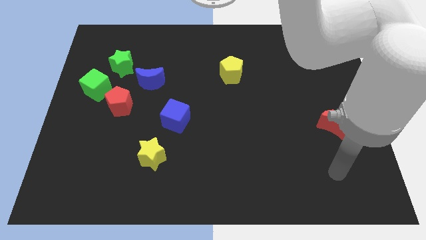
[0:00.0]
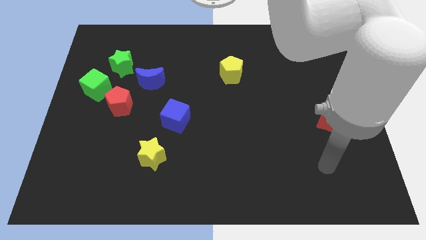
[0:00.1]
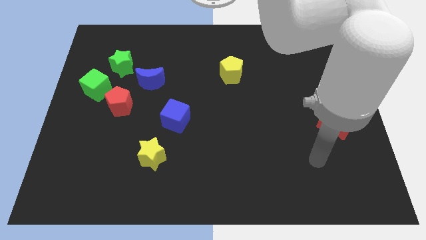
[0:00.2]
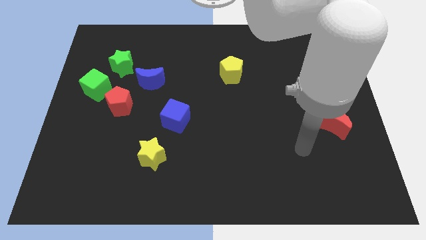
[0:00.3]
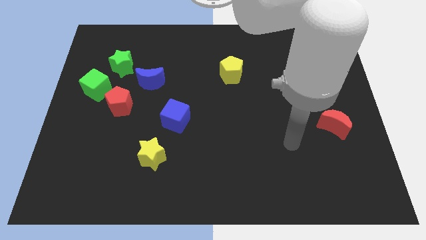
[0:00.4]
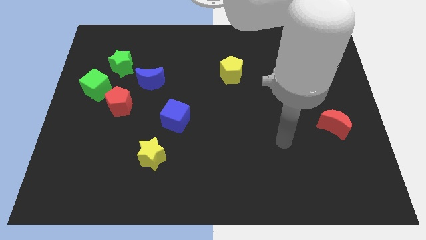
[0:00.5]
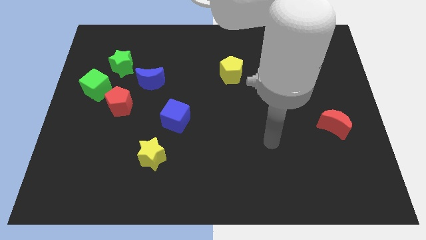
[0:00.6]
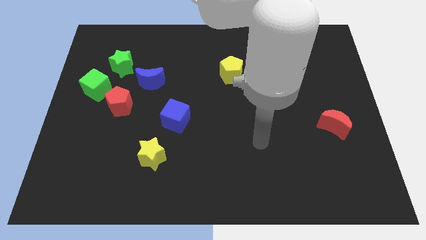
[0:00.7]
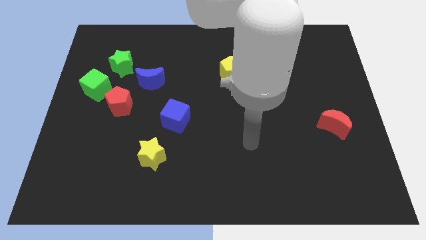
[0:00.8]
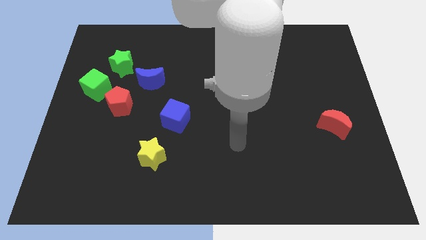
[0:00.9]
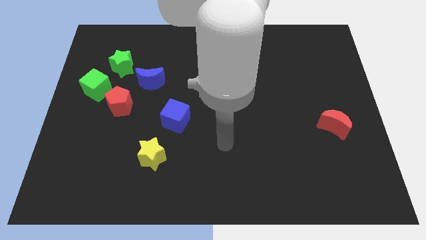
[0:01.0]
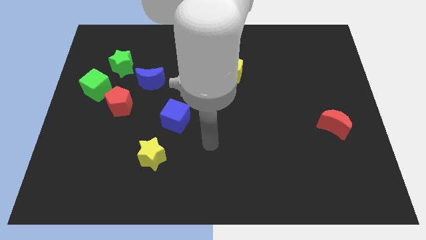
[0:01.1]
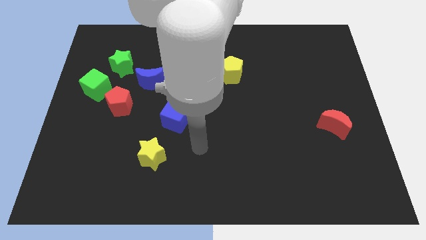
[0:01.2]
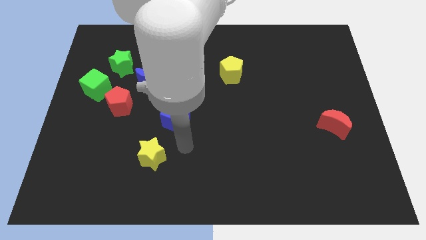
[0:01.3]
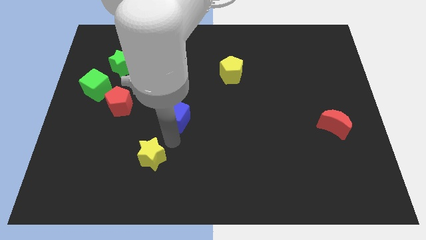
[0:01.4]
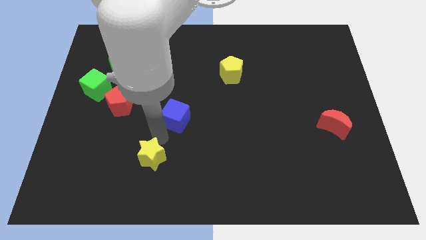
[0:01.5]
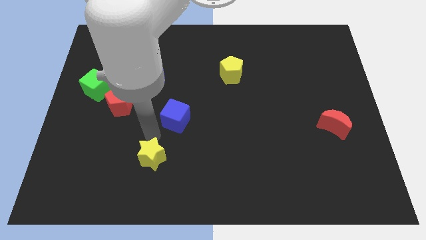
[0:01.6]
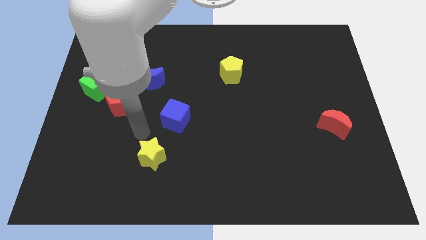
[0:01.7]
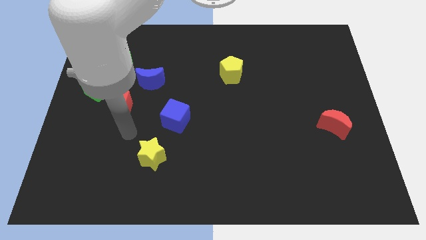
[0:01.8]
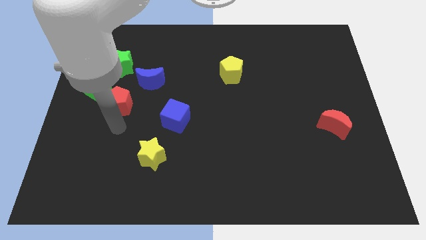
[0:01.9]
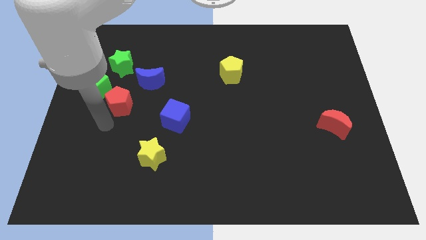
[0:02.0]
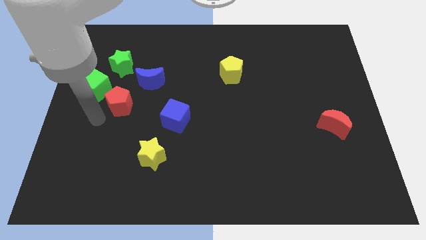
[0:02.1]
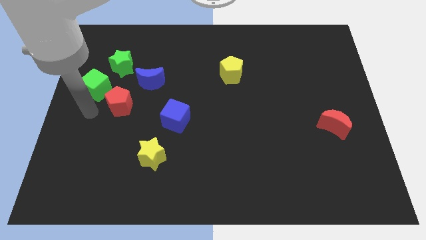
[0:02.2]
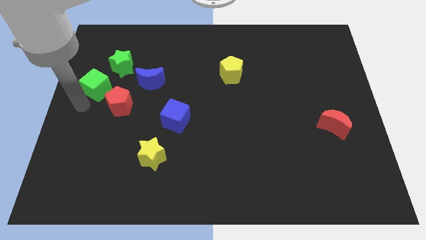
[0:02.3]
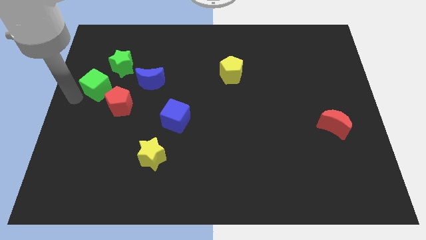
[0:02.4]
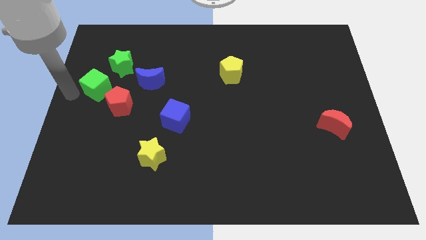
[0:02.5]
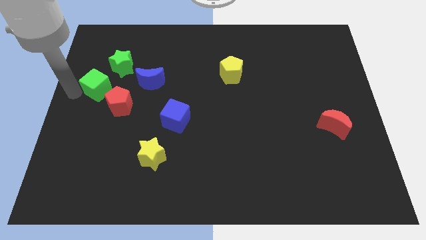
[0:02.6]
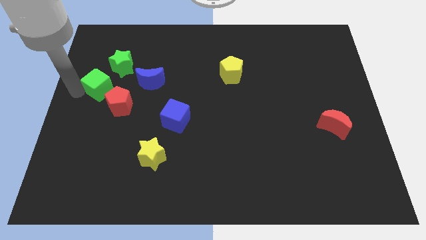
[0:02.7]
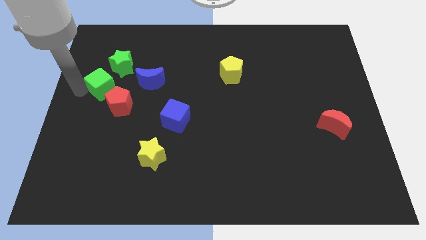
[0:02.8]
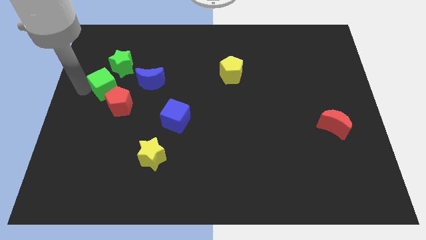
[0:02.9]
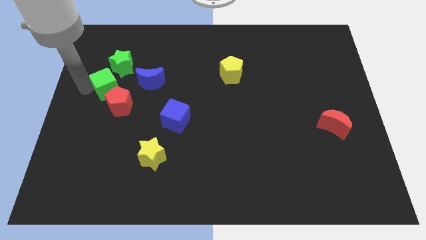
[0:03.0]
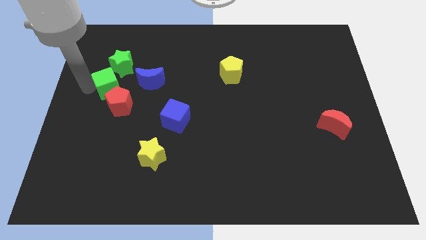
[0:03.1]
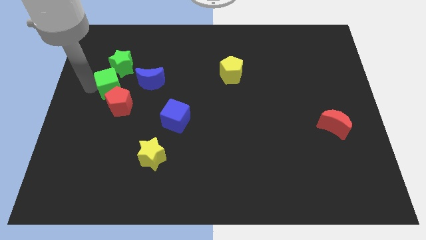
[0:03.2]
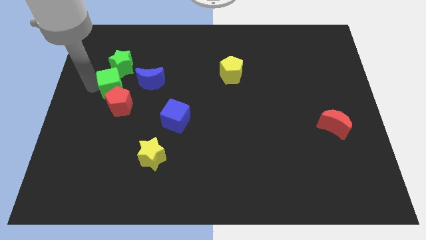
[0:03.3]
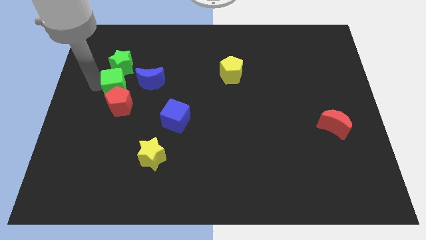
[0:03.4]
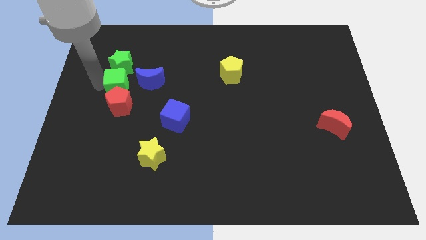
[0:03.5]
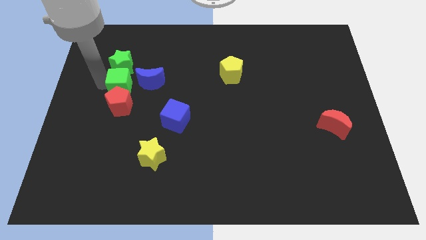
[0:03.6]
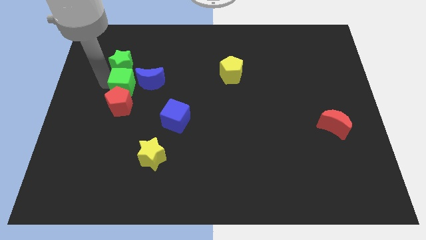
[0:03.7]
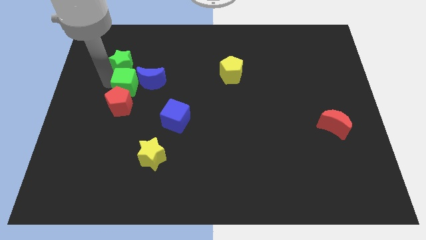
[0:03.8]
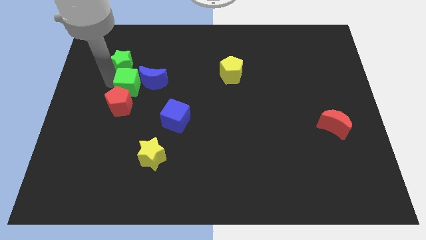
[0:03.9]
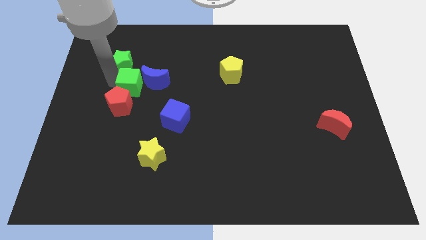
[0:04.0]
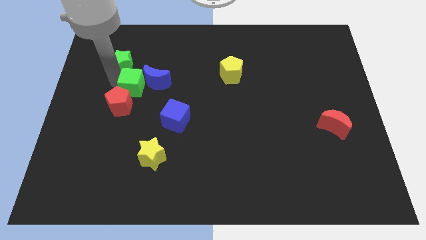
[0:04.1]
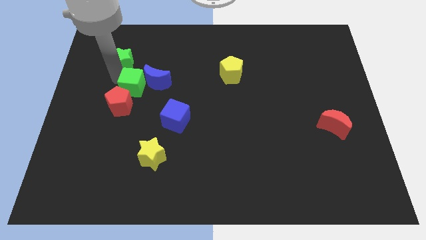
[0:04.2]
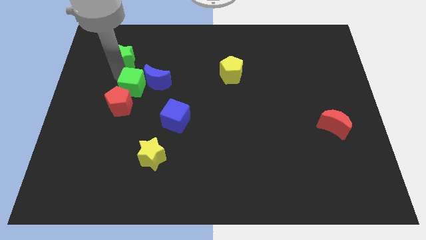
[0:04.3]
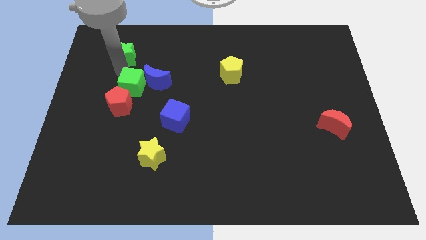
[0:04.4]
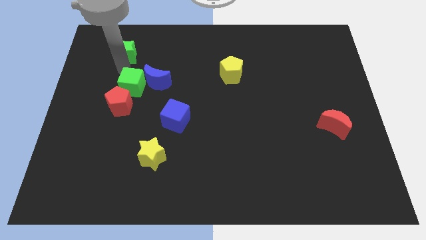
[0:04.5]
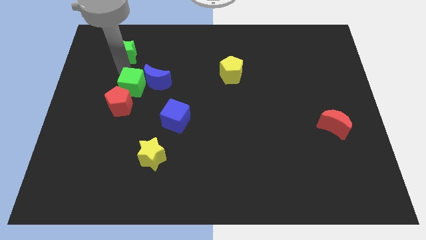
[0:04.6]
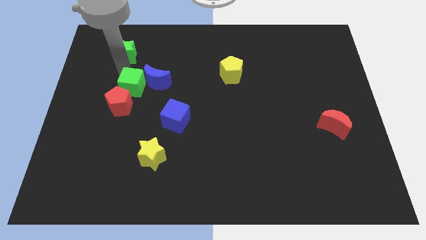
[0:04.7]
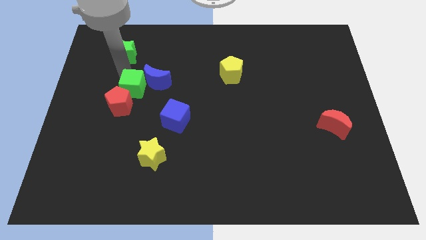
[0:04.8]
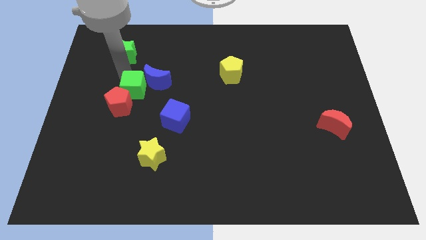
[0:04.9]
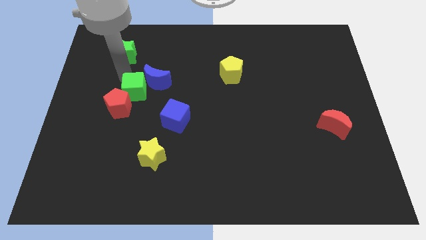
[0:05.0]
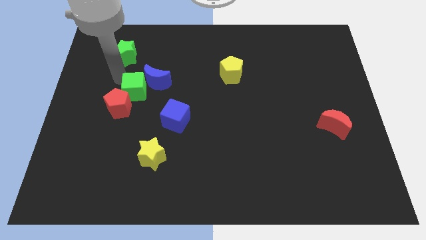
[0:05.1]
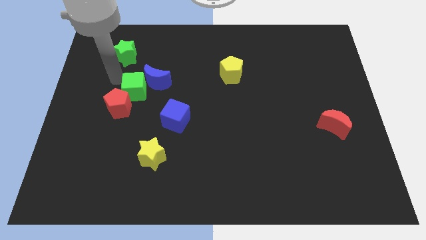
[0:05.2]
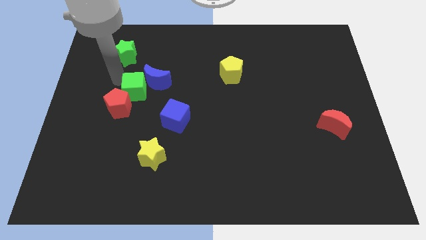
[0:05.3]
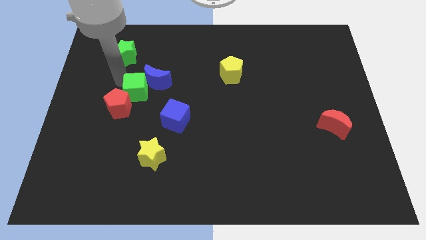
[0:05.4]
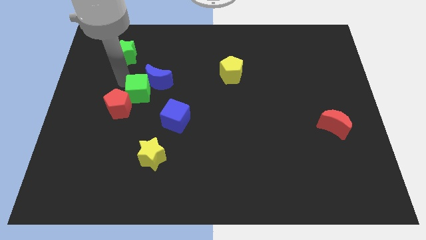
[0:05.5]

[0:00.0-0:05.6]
put the green cube to the top left side of the blue cube

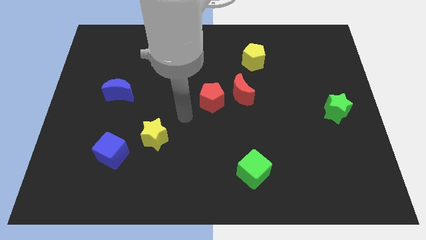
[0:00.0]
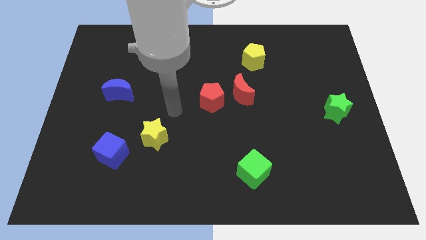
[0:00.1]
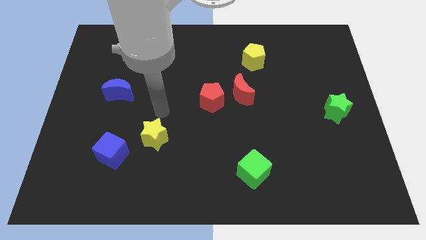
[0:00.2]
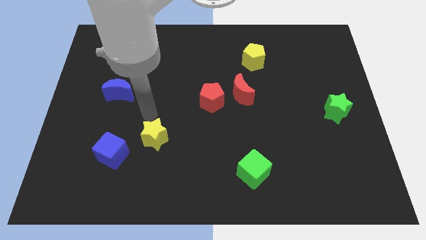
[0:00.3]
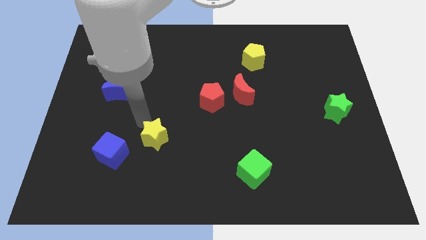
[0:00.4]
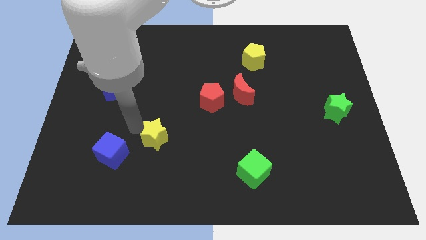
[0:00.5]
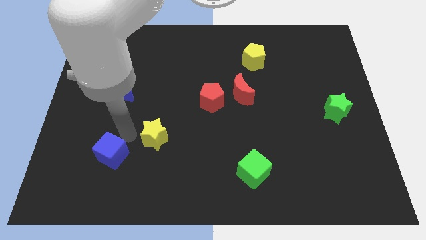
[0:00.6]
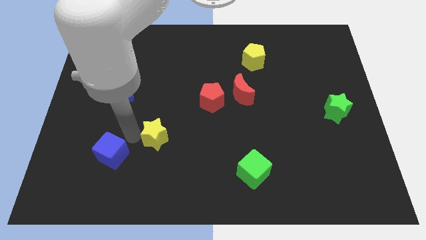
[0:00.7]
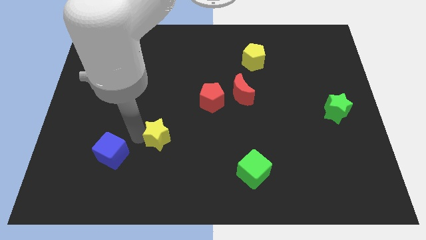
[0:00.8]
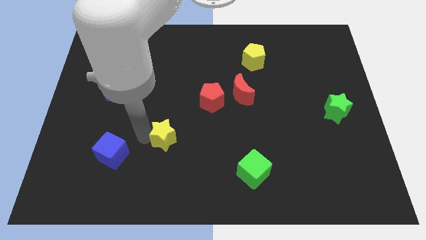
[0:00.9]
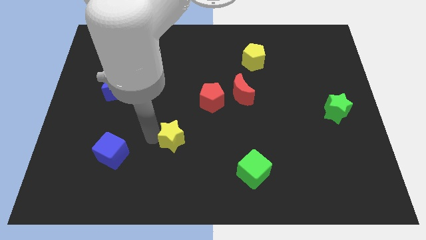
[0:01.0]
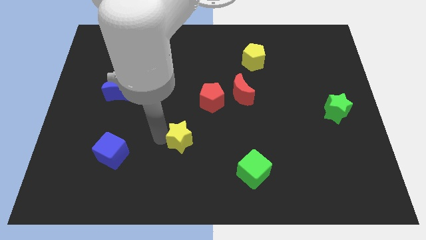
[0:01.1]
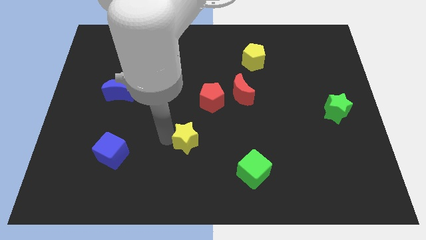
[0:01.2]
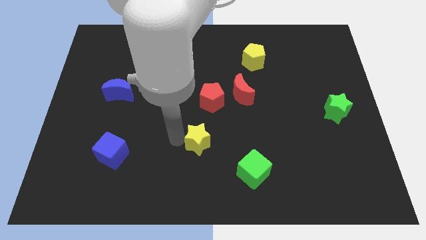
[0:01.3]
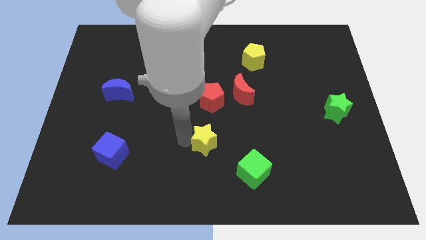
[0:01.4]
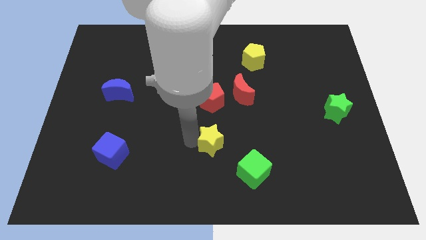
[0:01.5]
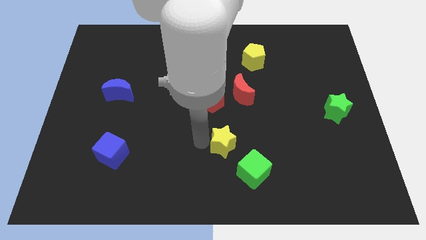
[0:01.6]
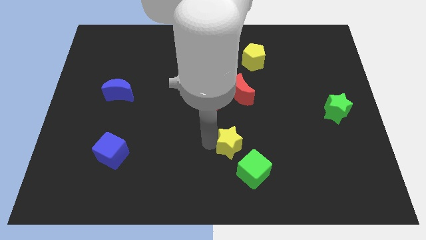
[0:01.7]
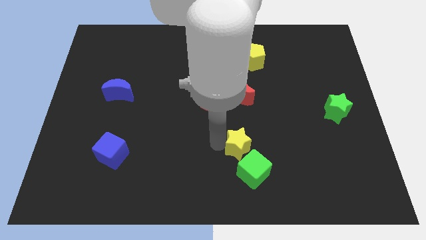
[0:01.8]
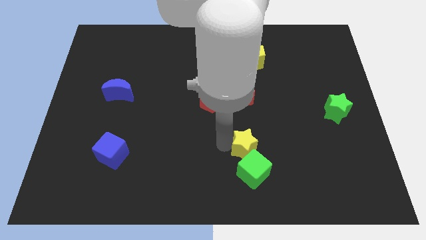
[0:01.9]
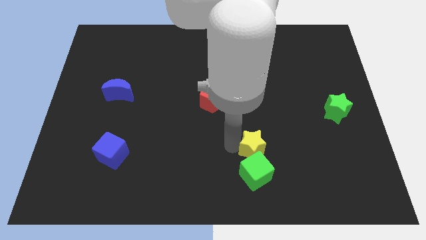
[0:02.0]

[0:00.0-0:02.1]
move the yellow star to the top right side of the green cube

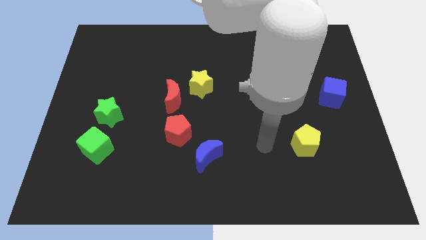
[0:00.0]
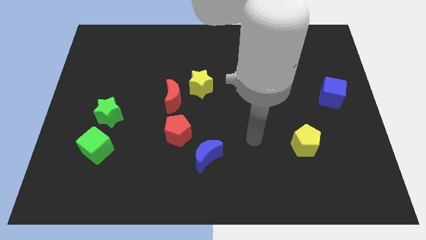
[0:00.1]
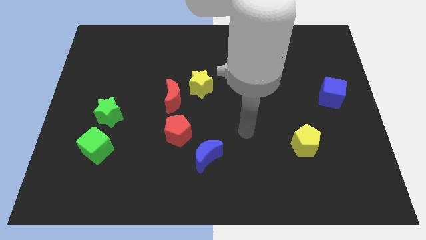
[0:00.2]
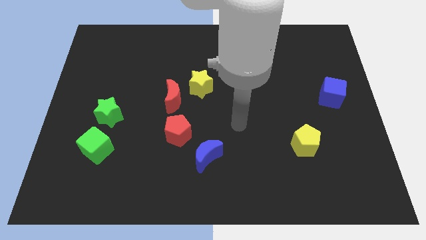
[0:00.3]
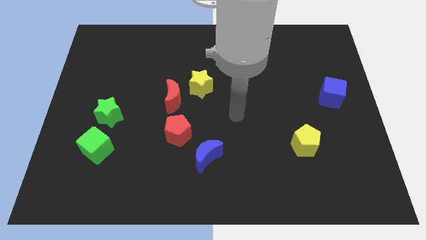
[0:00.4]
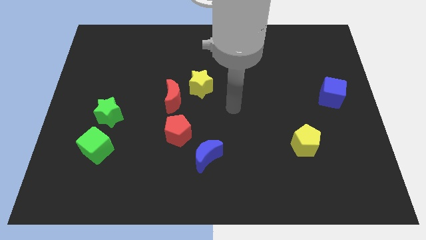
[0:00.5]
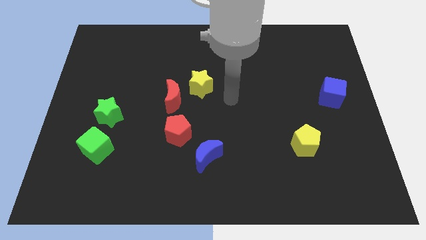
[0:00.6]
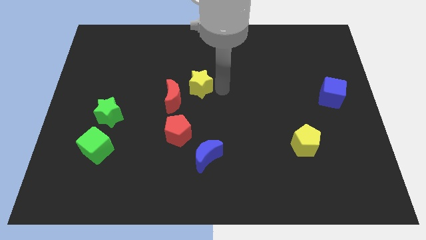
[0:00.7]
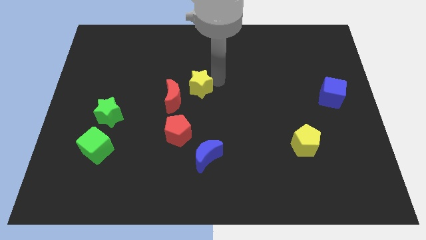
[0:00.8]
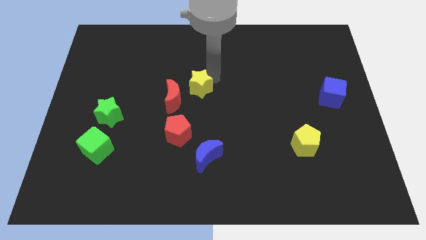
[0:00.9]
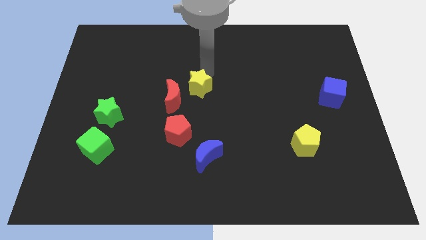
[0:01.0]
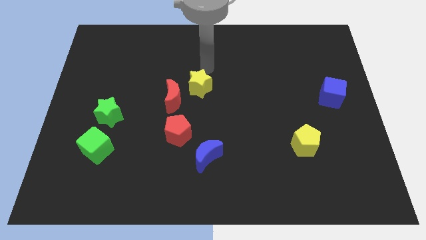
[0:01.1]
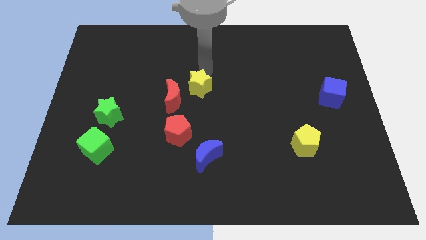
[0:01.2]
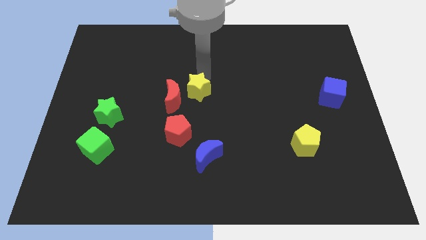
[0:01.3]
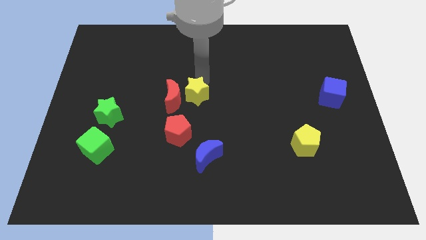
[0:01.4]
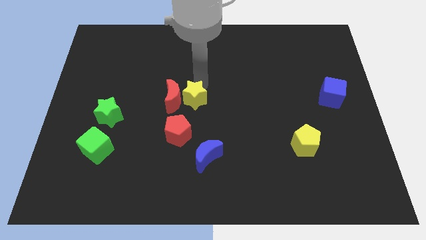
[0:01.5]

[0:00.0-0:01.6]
put the yellow star diagonally down and to the right of the red moon
